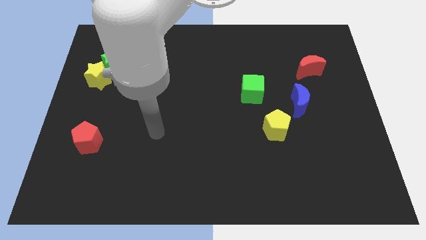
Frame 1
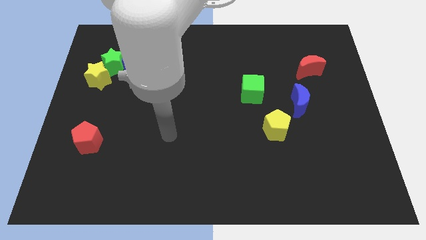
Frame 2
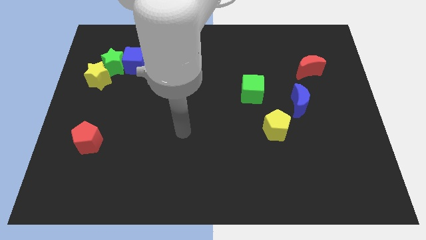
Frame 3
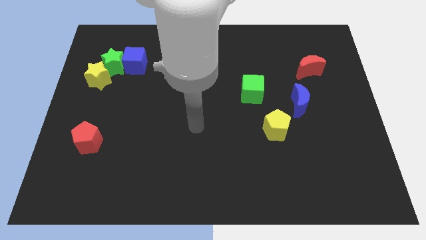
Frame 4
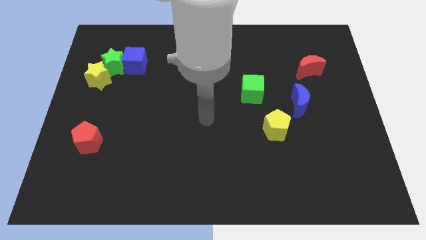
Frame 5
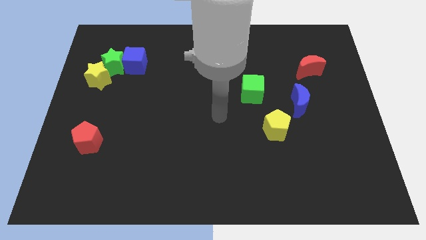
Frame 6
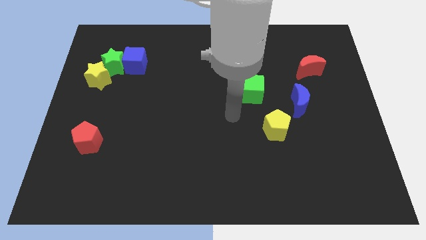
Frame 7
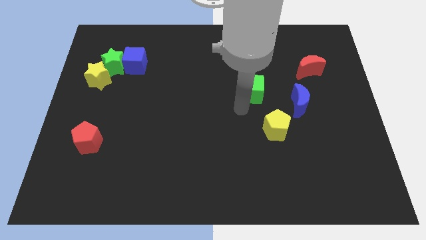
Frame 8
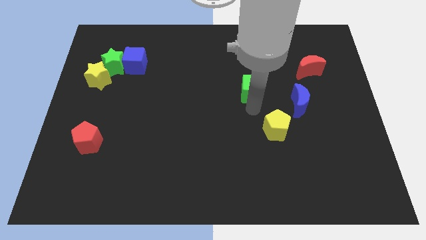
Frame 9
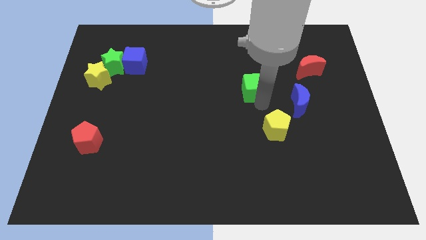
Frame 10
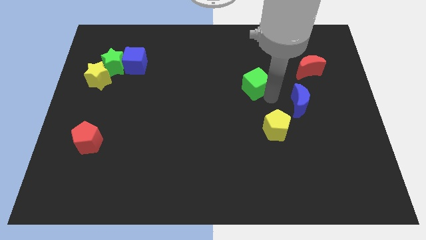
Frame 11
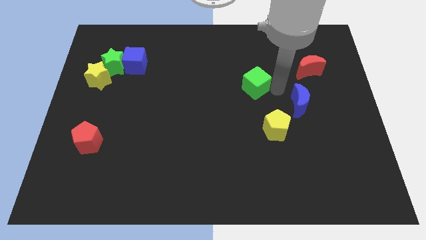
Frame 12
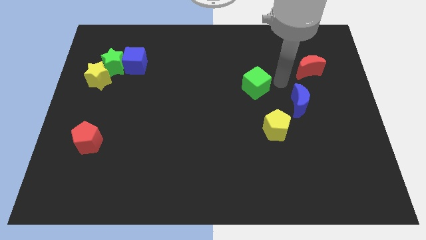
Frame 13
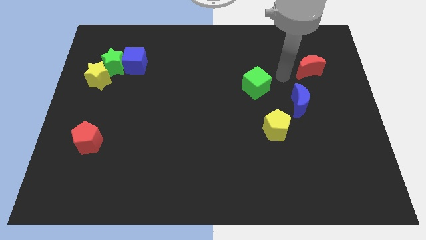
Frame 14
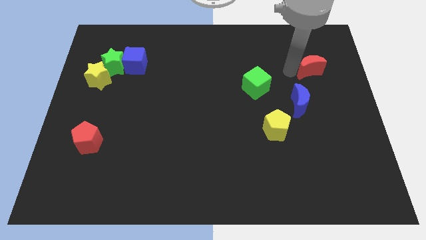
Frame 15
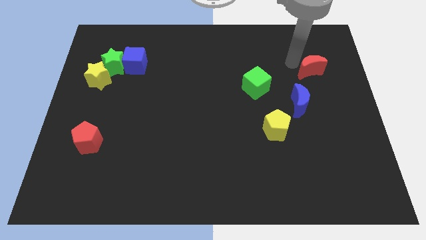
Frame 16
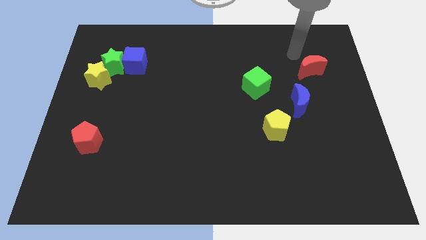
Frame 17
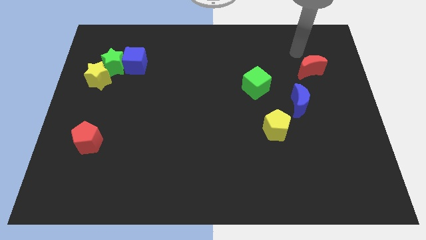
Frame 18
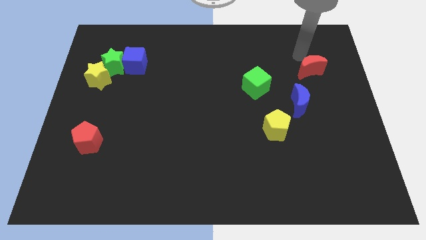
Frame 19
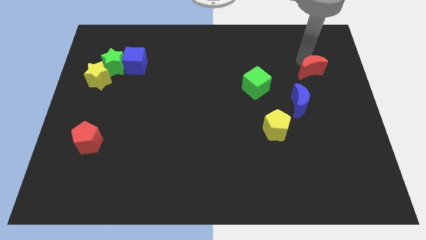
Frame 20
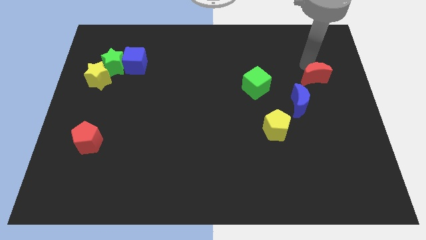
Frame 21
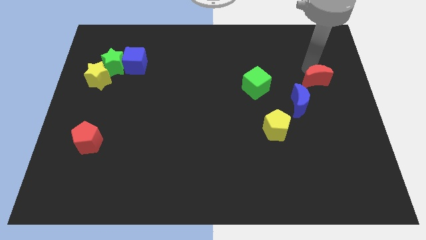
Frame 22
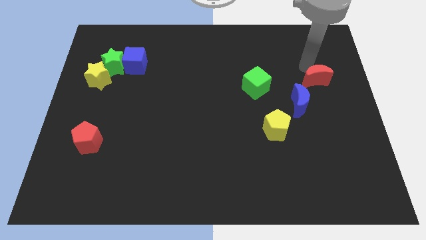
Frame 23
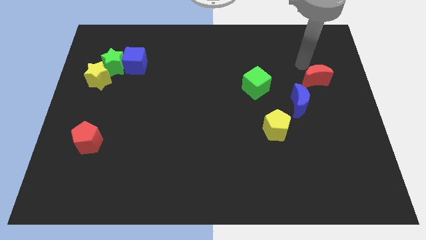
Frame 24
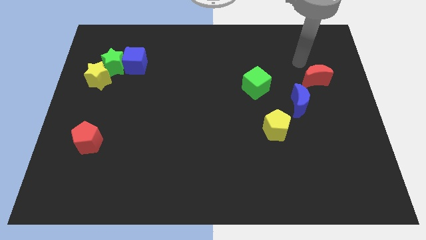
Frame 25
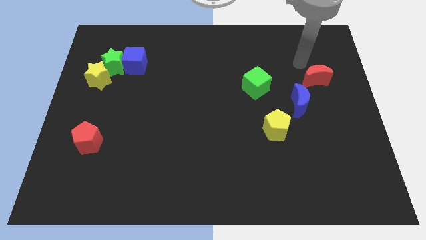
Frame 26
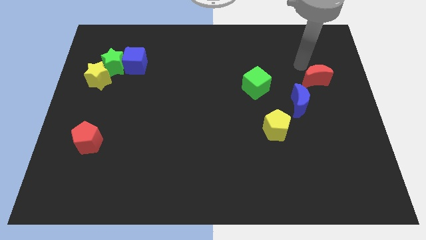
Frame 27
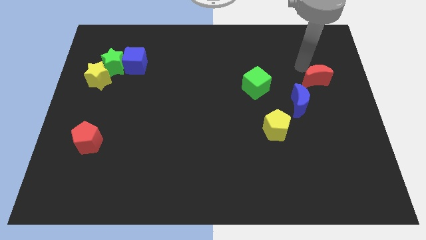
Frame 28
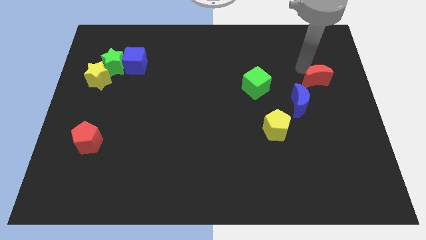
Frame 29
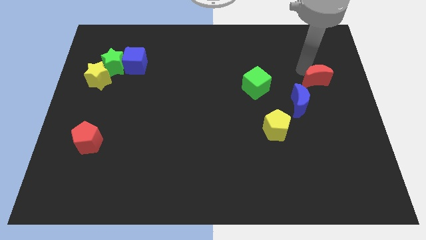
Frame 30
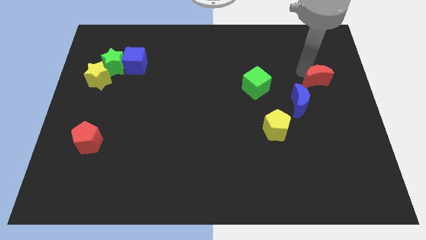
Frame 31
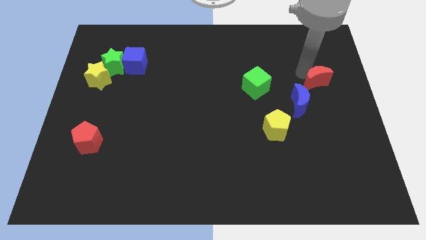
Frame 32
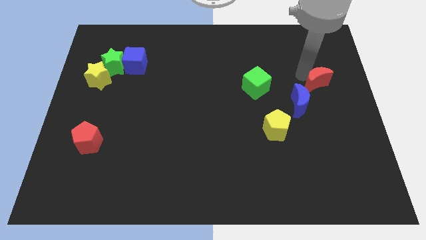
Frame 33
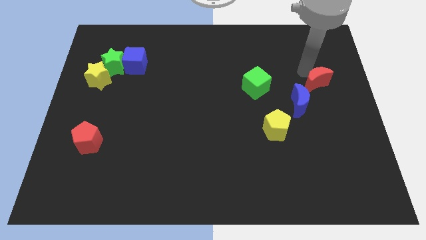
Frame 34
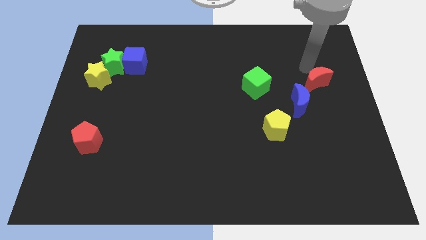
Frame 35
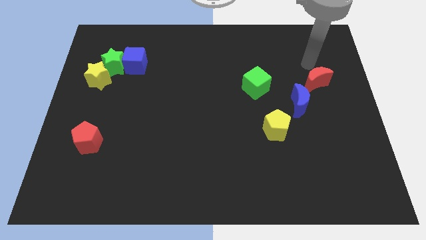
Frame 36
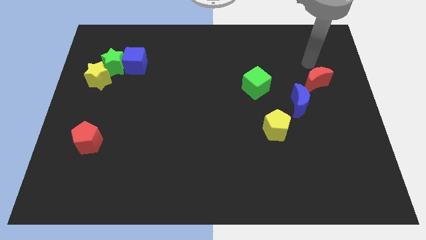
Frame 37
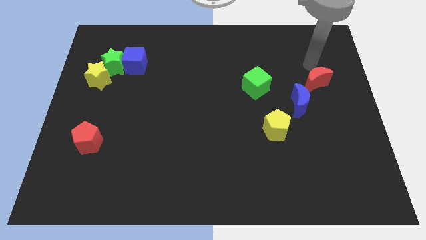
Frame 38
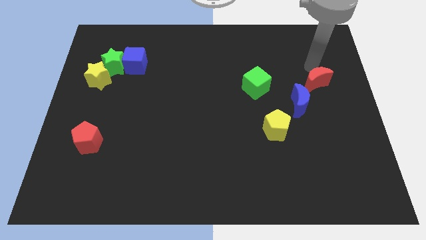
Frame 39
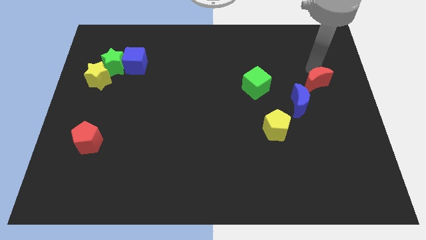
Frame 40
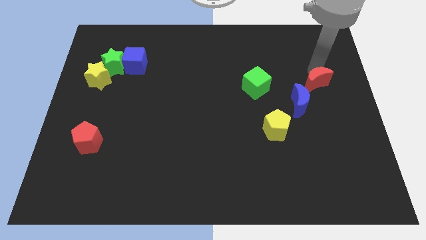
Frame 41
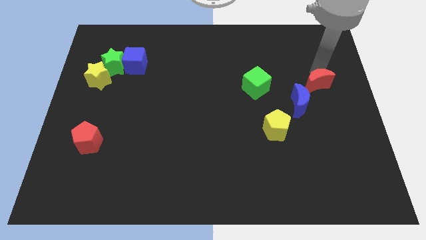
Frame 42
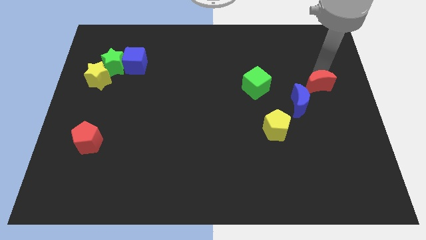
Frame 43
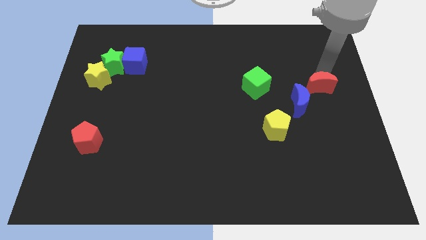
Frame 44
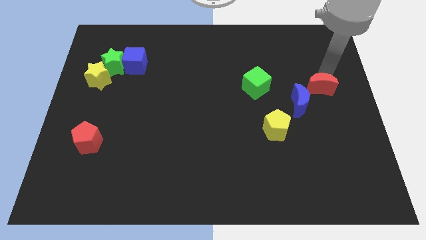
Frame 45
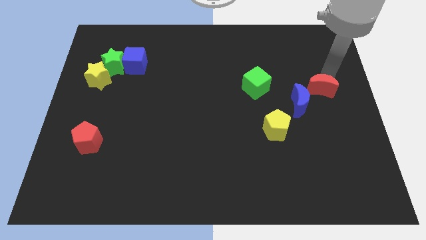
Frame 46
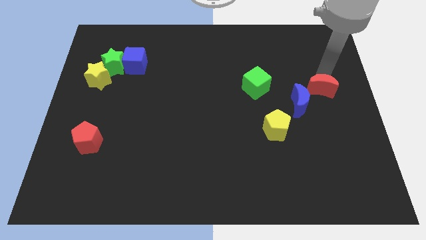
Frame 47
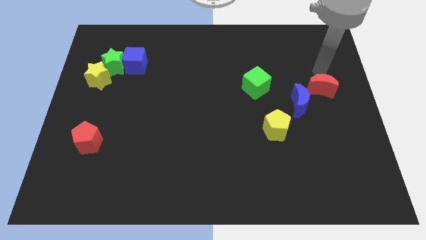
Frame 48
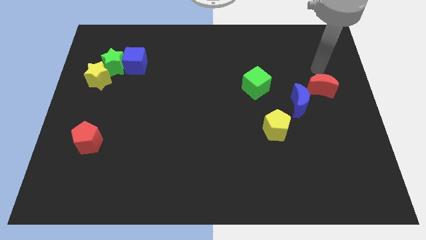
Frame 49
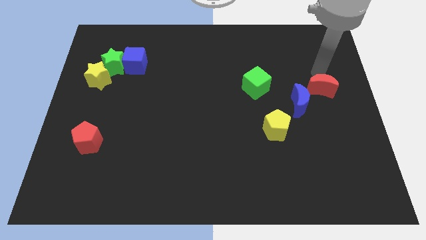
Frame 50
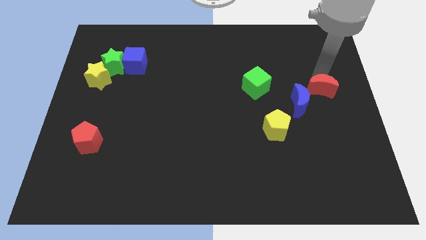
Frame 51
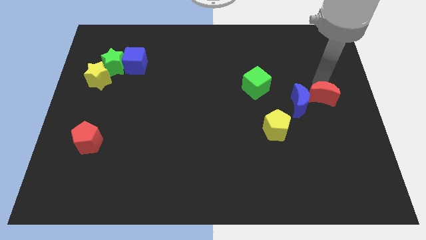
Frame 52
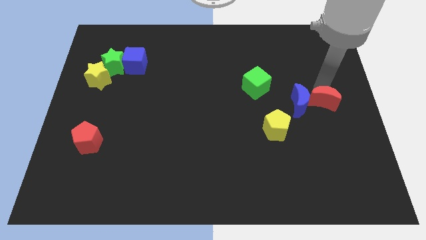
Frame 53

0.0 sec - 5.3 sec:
put the red moon to the bottom right of the blue moon

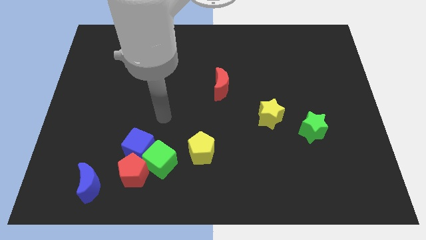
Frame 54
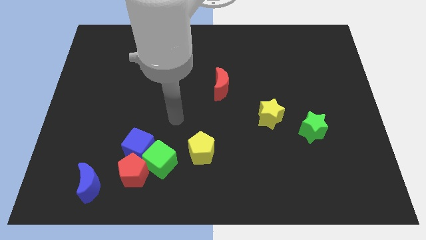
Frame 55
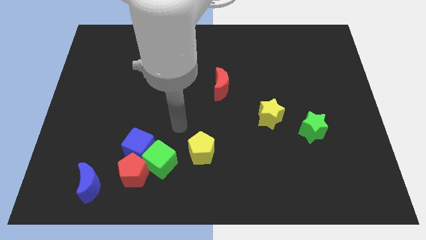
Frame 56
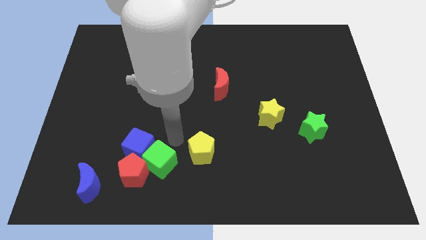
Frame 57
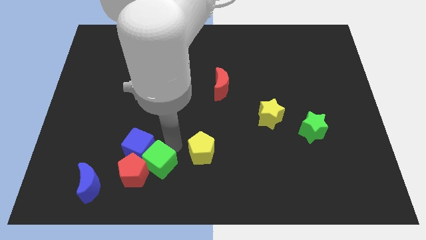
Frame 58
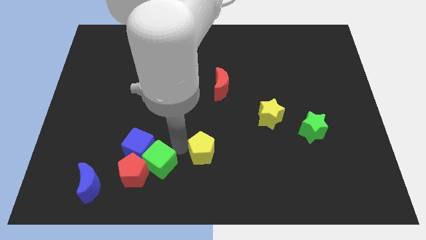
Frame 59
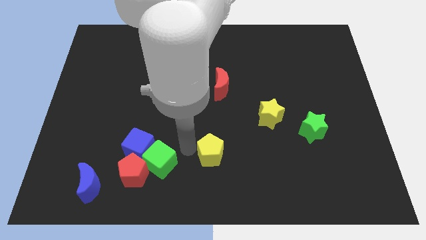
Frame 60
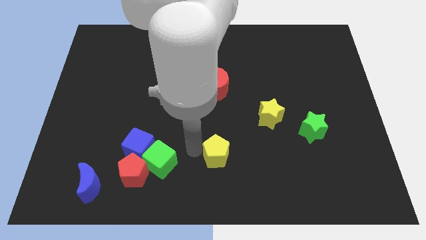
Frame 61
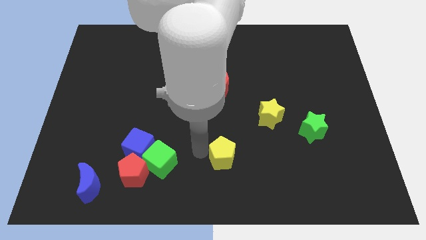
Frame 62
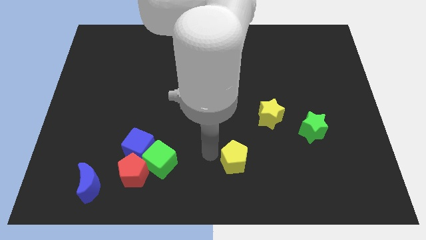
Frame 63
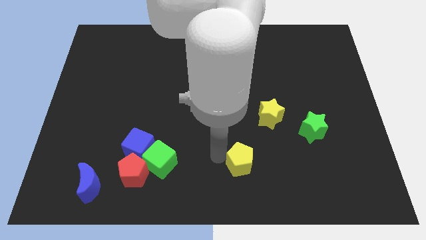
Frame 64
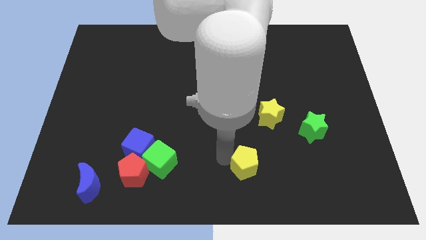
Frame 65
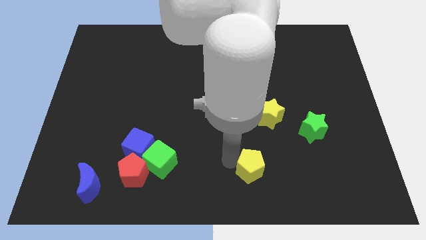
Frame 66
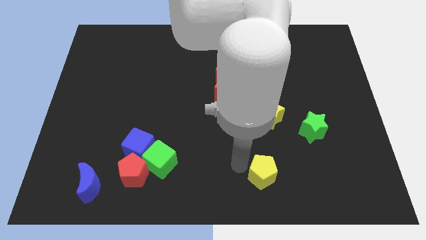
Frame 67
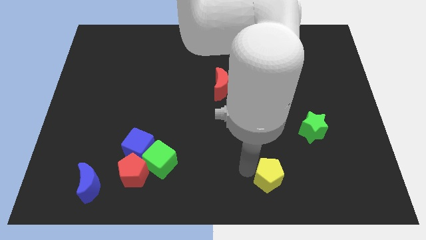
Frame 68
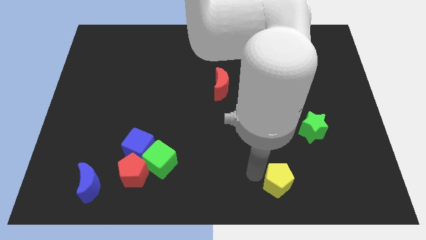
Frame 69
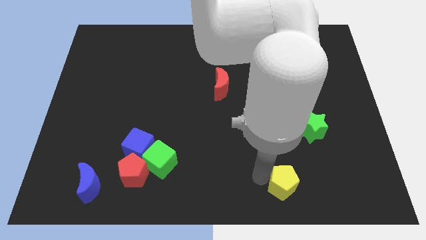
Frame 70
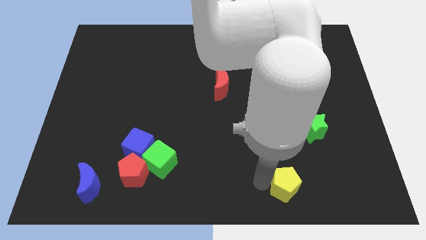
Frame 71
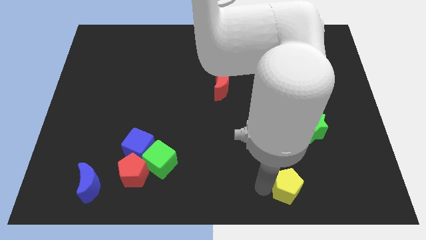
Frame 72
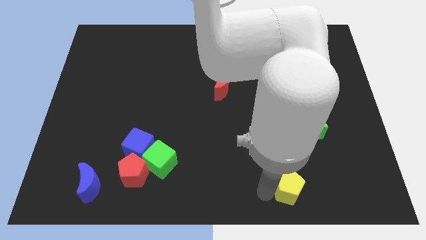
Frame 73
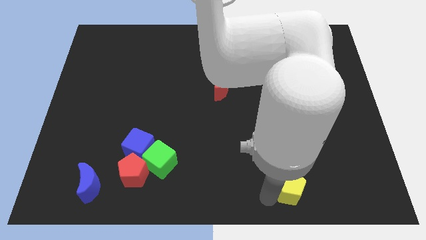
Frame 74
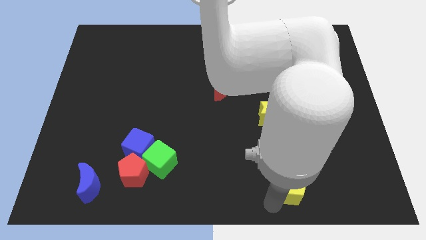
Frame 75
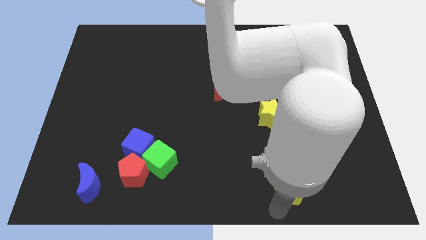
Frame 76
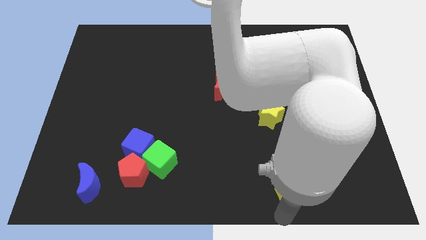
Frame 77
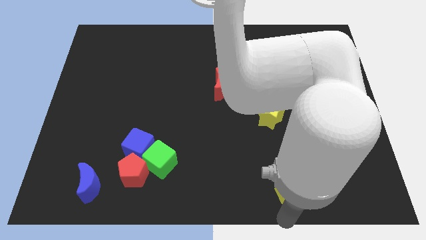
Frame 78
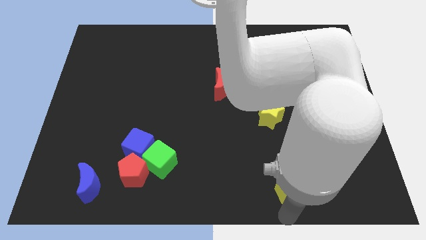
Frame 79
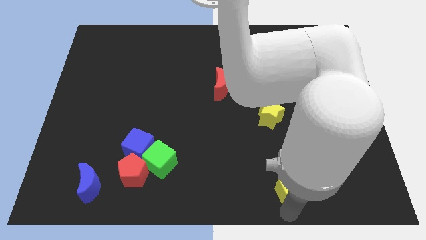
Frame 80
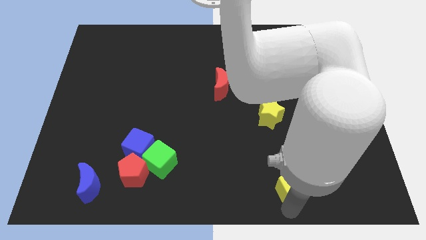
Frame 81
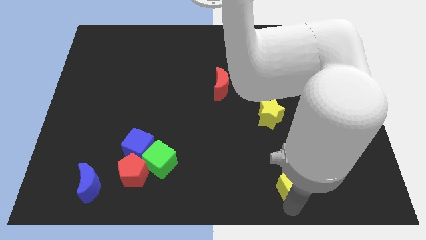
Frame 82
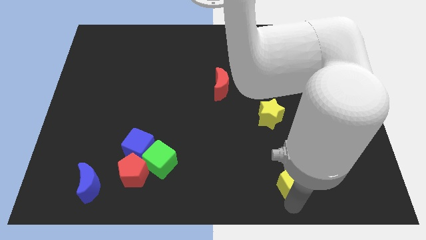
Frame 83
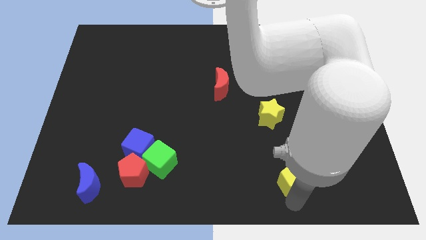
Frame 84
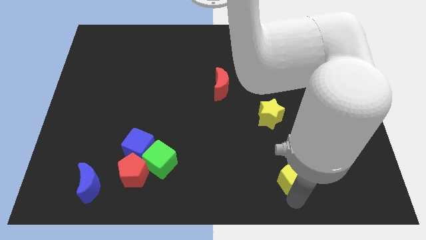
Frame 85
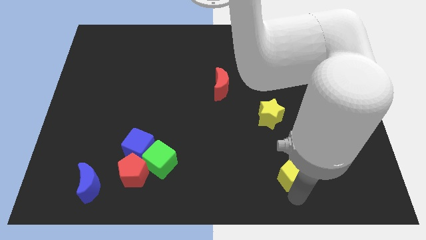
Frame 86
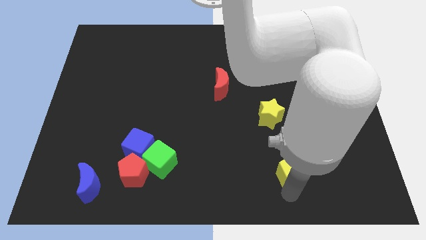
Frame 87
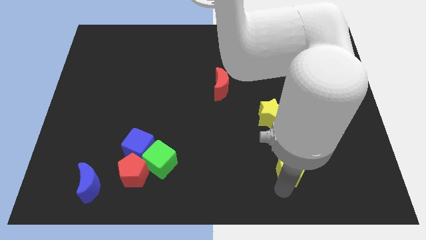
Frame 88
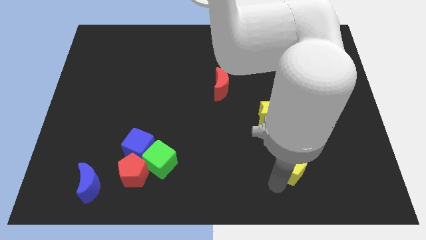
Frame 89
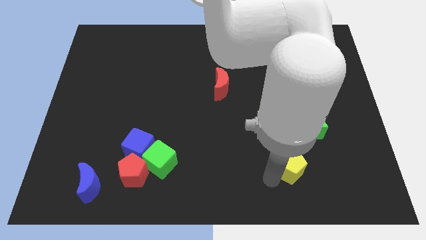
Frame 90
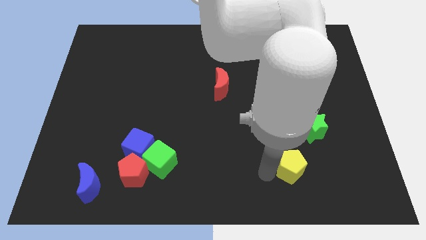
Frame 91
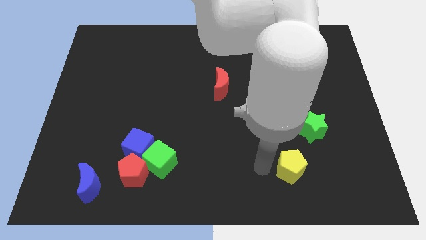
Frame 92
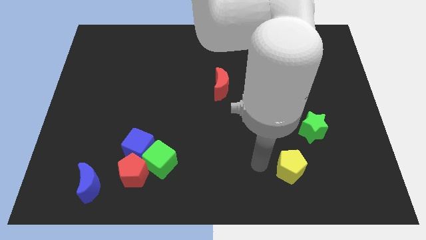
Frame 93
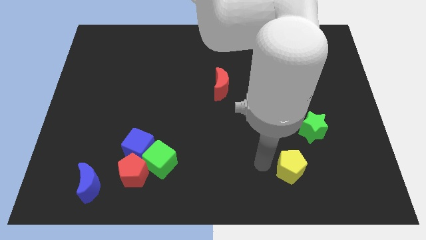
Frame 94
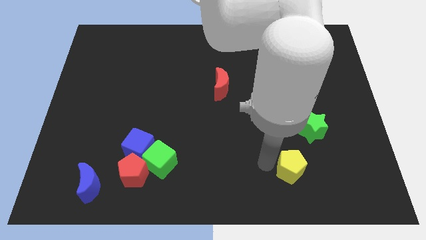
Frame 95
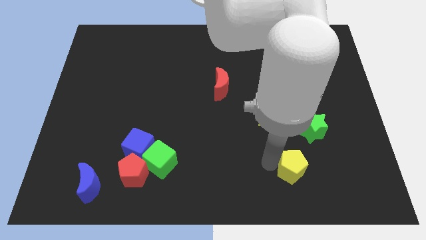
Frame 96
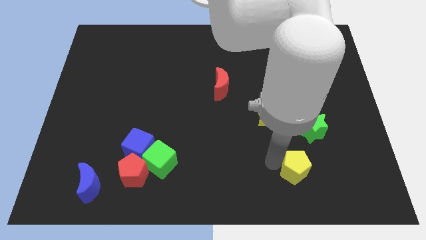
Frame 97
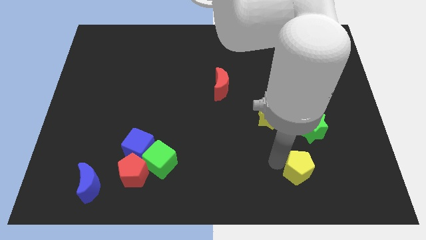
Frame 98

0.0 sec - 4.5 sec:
put the yellow pentagon to the bottom side of the green star
